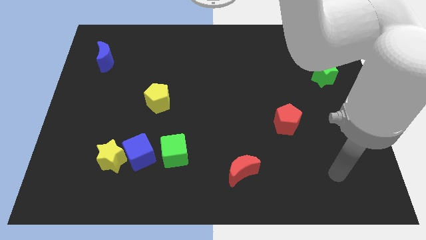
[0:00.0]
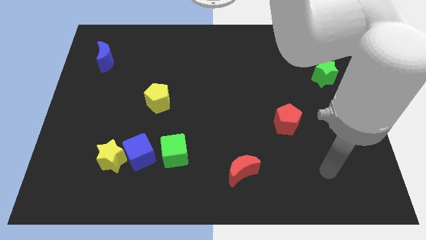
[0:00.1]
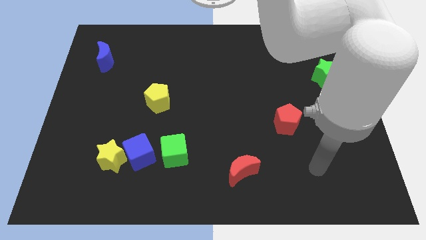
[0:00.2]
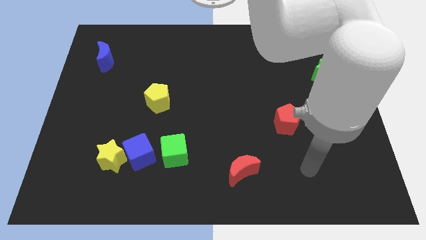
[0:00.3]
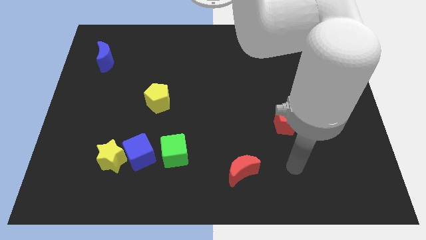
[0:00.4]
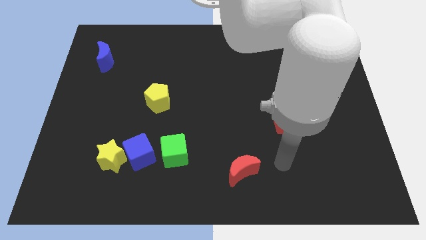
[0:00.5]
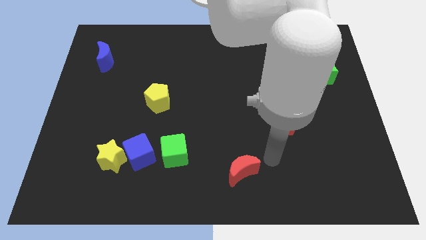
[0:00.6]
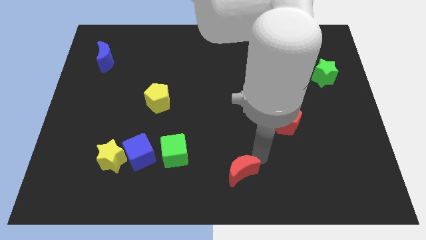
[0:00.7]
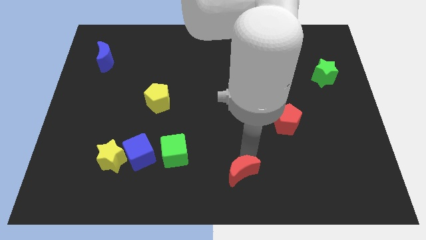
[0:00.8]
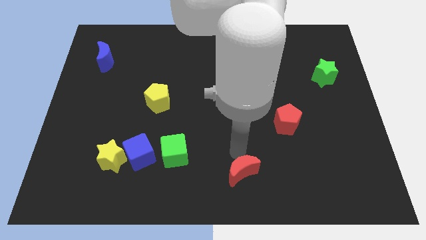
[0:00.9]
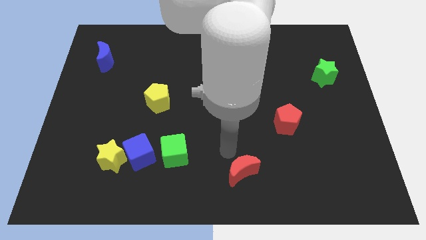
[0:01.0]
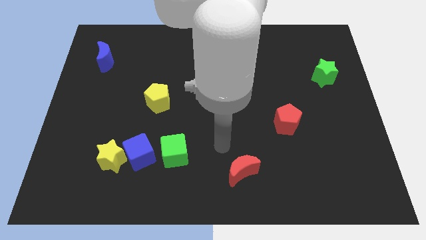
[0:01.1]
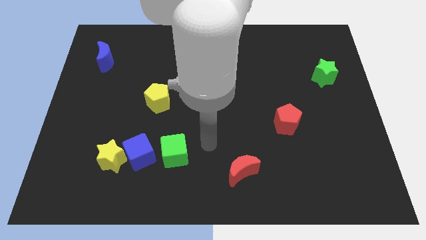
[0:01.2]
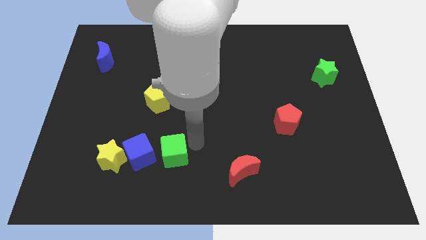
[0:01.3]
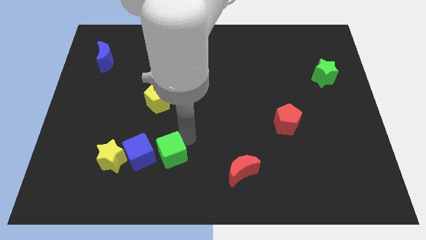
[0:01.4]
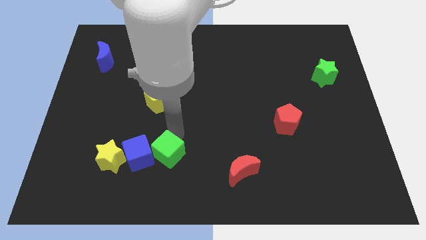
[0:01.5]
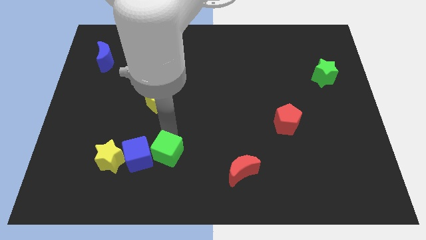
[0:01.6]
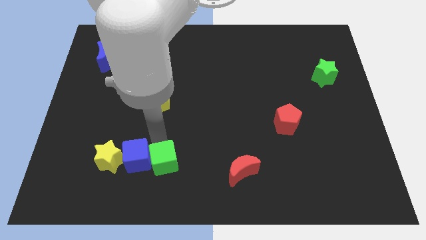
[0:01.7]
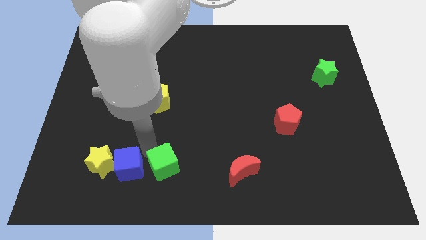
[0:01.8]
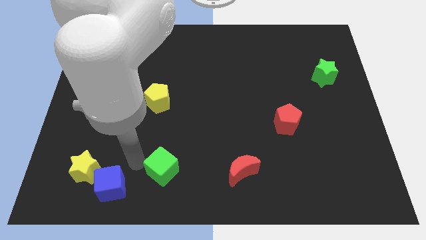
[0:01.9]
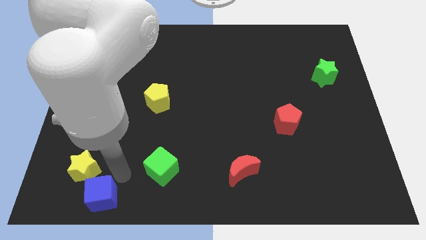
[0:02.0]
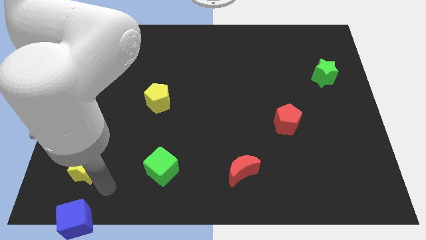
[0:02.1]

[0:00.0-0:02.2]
separate the yellow star from the blue cube

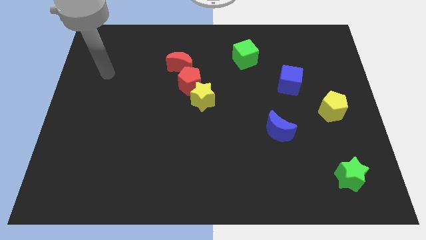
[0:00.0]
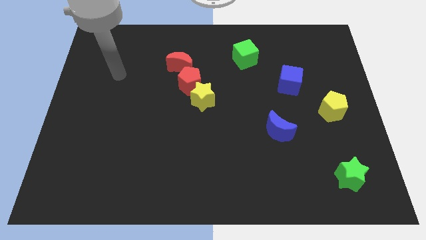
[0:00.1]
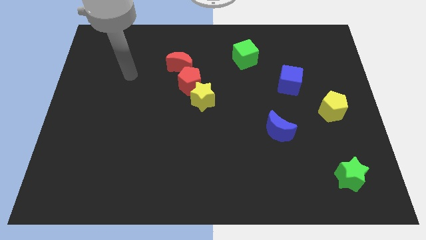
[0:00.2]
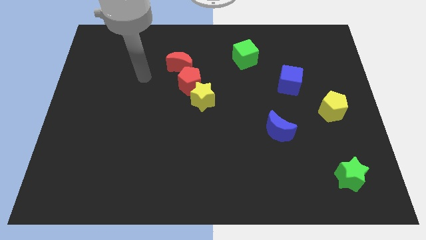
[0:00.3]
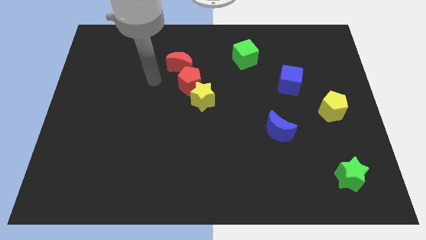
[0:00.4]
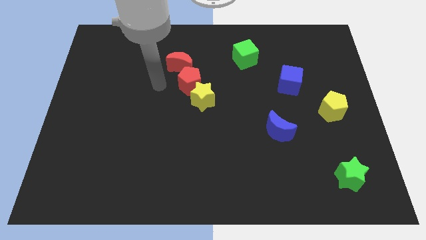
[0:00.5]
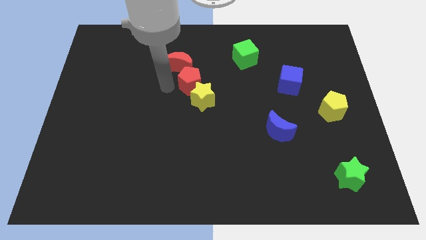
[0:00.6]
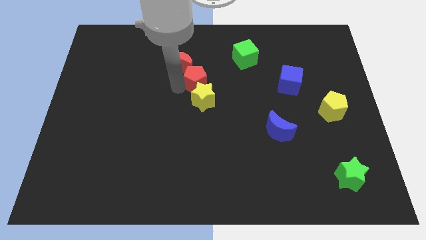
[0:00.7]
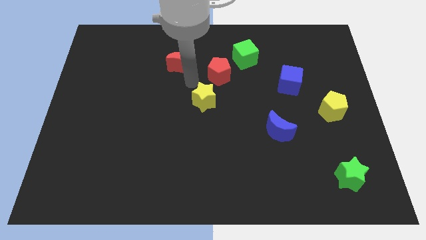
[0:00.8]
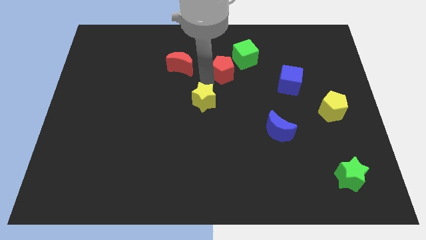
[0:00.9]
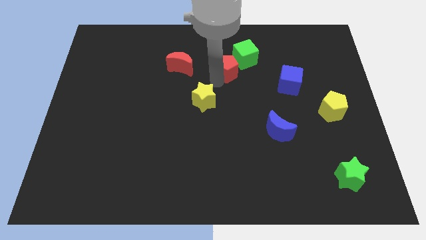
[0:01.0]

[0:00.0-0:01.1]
separate the yellow star from the red pentagon

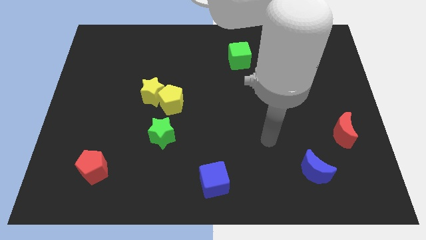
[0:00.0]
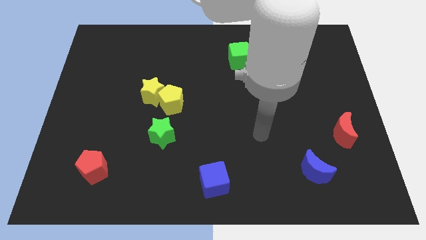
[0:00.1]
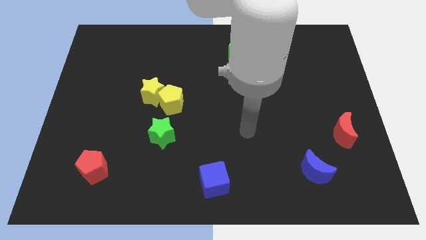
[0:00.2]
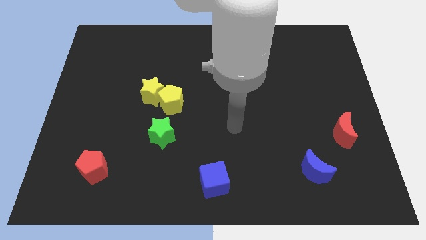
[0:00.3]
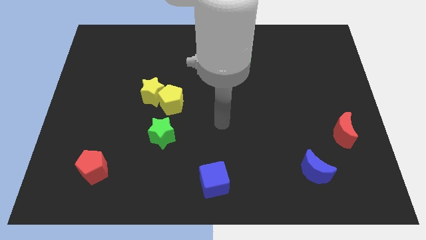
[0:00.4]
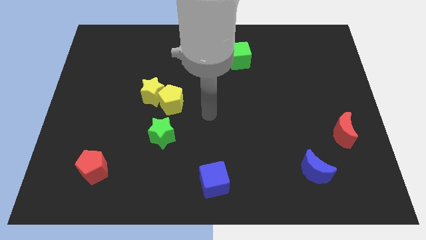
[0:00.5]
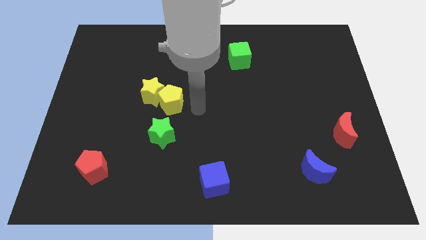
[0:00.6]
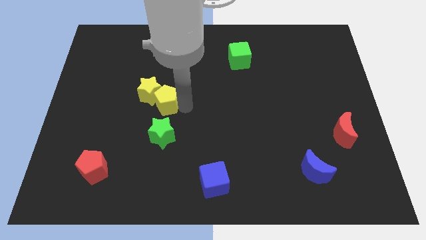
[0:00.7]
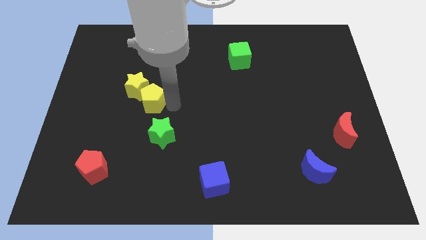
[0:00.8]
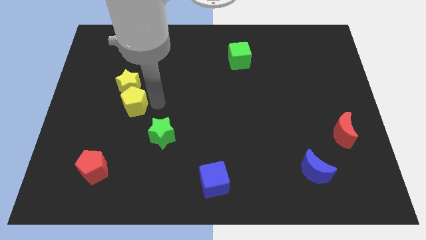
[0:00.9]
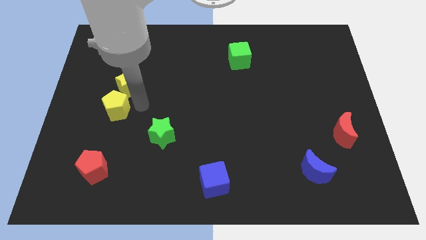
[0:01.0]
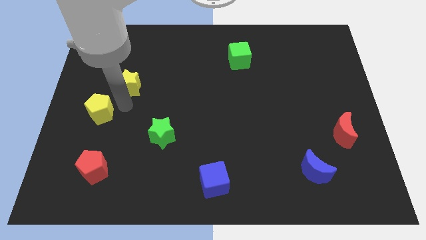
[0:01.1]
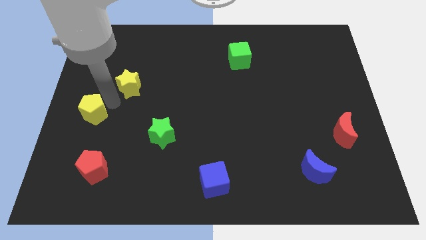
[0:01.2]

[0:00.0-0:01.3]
separate the yellow star from the yellow pentagon

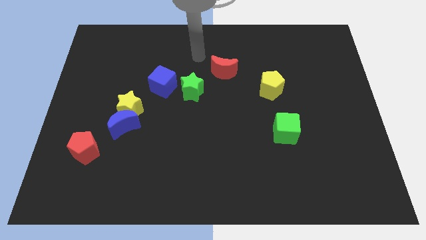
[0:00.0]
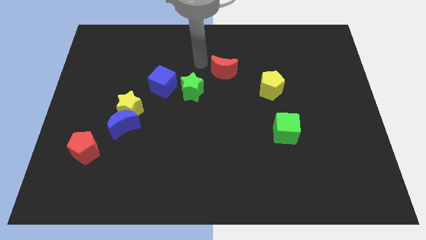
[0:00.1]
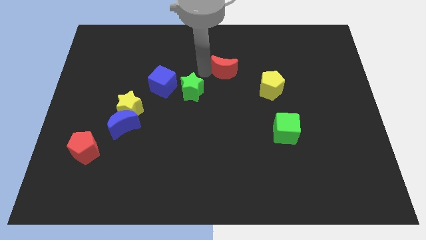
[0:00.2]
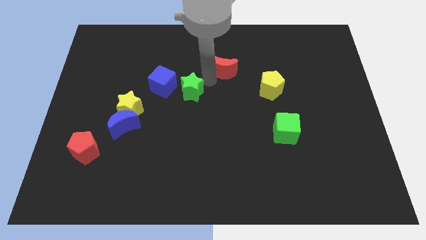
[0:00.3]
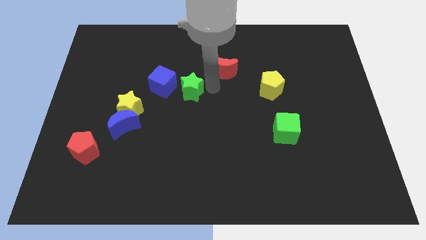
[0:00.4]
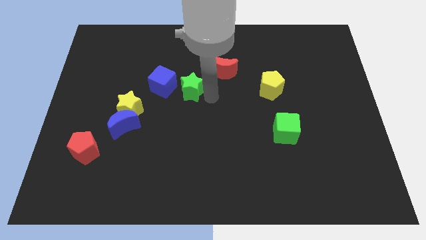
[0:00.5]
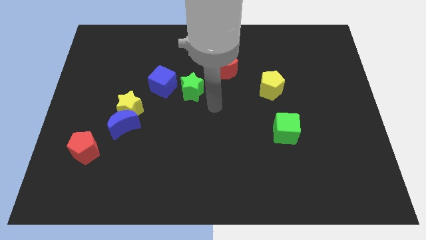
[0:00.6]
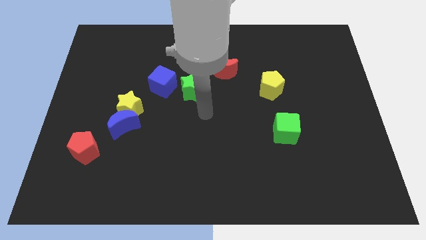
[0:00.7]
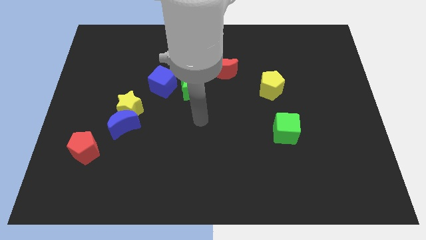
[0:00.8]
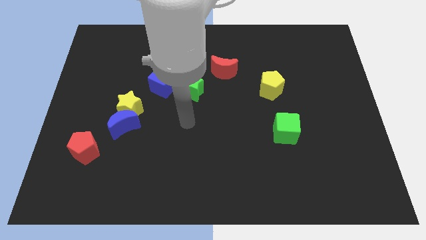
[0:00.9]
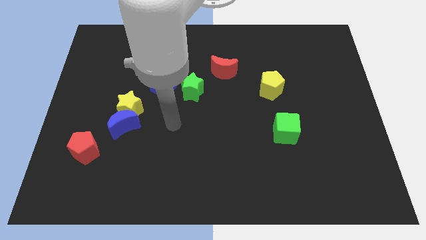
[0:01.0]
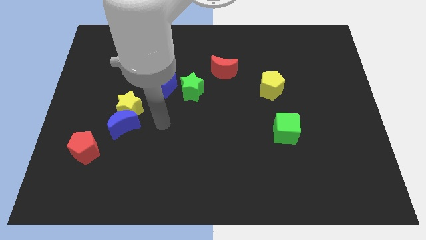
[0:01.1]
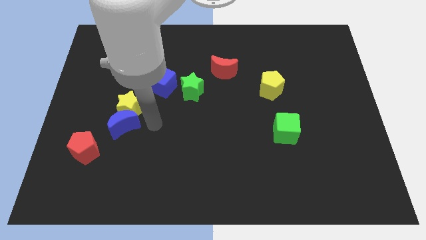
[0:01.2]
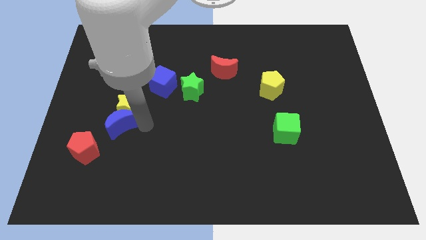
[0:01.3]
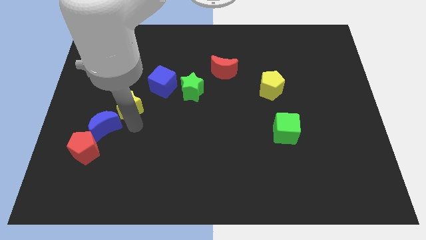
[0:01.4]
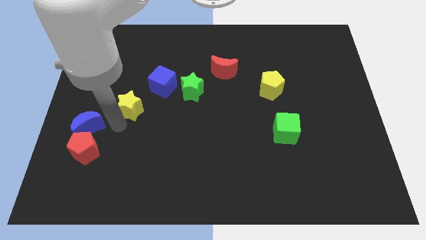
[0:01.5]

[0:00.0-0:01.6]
separate the yellow star from the blue moon

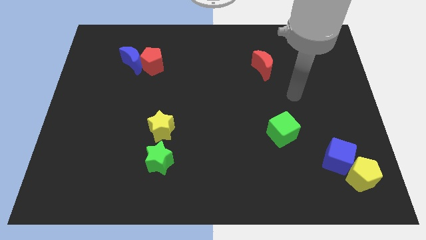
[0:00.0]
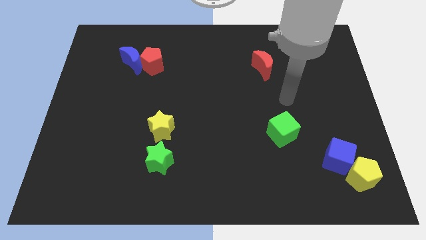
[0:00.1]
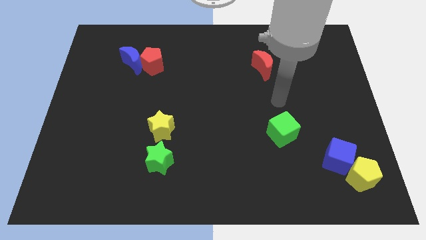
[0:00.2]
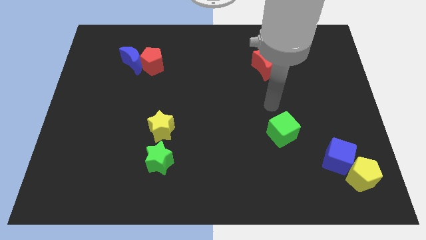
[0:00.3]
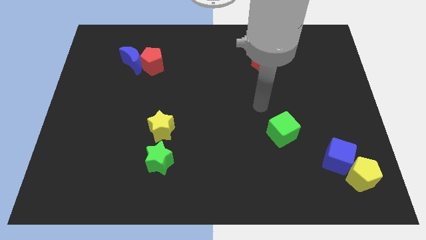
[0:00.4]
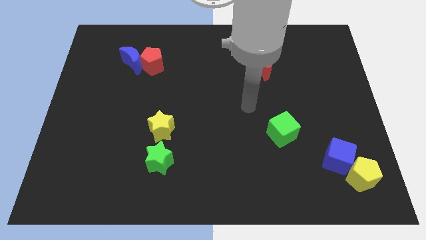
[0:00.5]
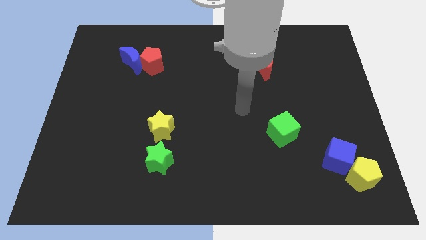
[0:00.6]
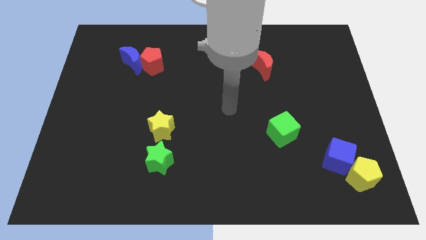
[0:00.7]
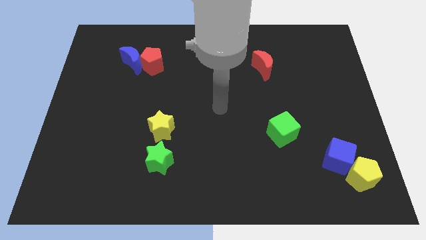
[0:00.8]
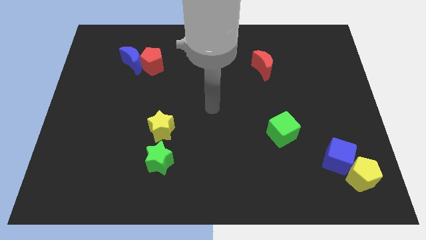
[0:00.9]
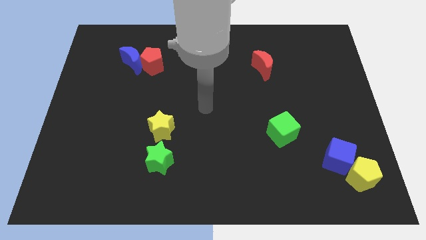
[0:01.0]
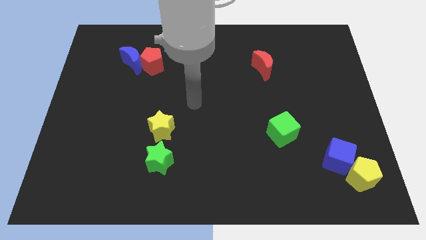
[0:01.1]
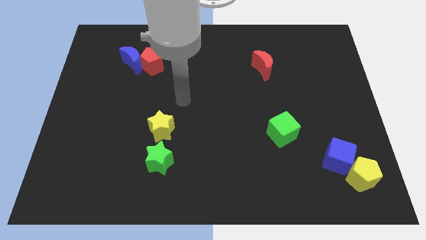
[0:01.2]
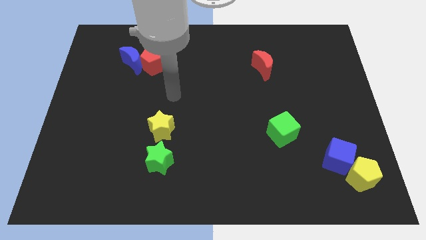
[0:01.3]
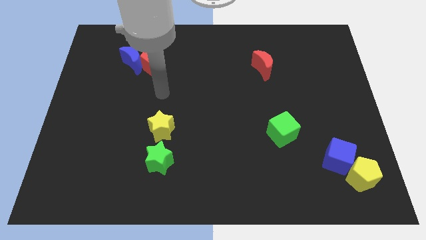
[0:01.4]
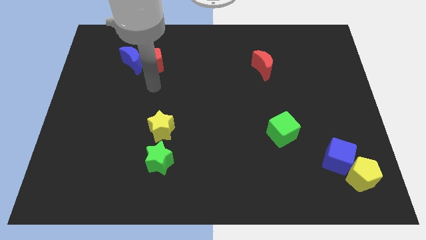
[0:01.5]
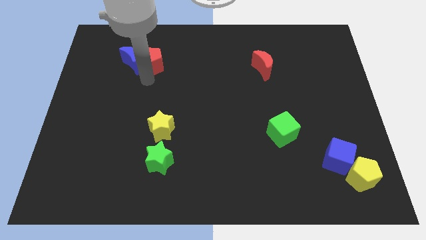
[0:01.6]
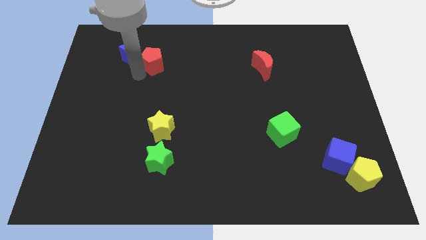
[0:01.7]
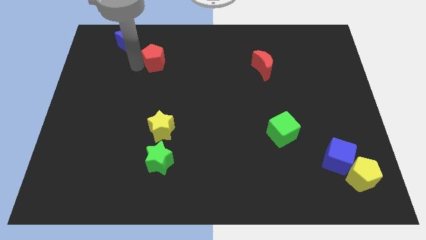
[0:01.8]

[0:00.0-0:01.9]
separate the red pentagon from the blue moon

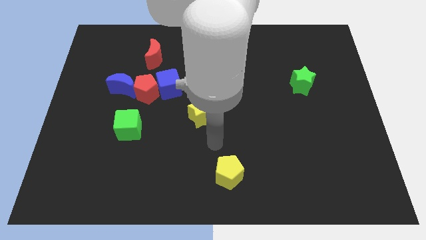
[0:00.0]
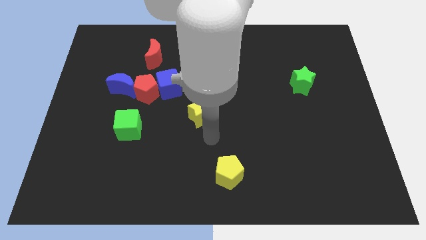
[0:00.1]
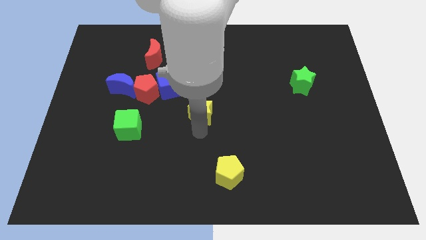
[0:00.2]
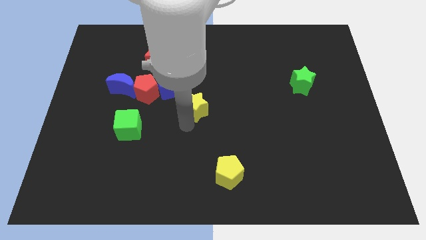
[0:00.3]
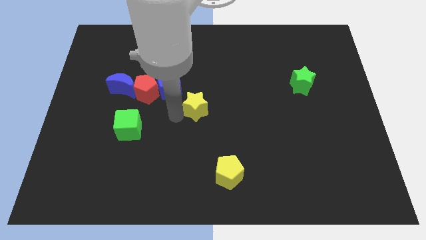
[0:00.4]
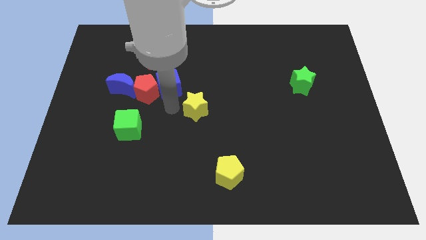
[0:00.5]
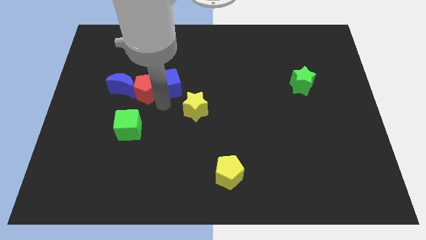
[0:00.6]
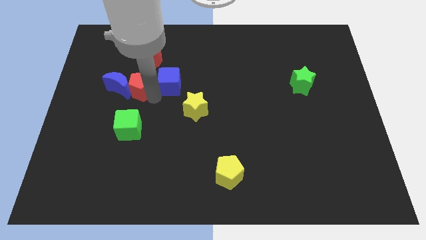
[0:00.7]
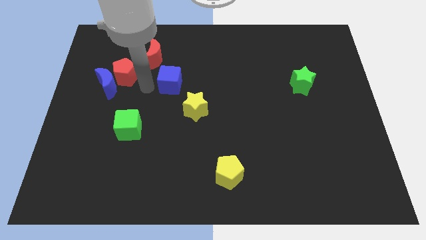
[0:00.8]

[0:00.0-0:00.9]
move the blue cube away from the red pentagon

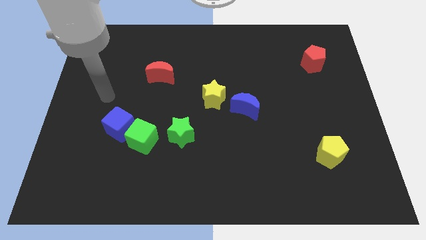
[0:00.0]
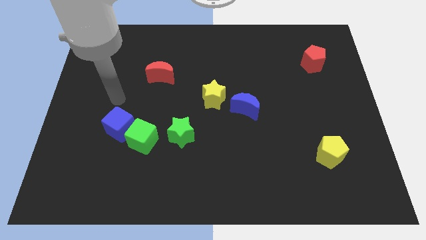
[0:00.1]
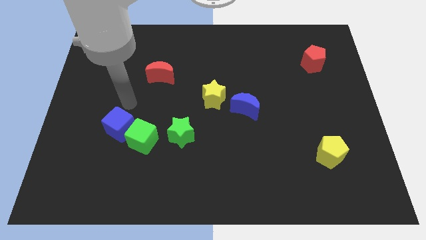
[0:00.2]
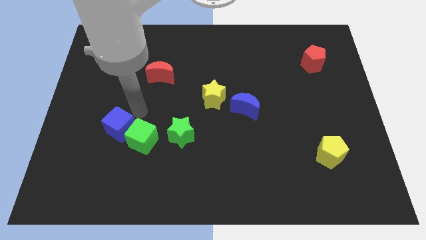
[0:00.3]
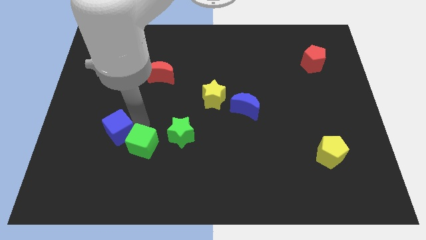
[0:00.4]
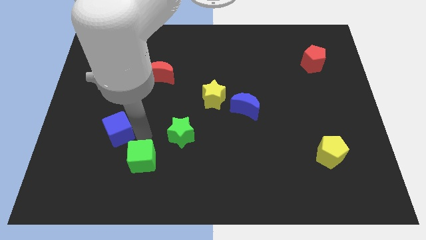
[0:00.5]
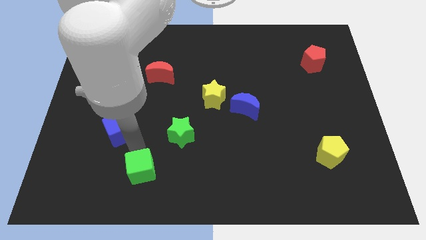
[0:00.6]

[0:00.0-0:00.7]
pull the blue cube apart from the green cube
